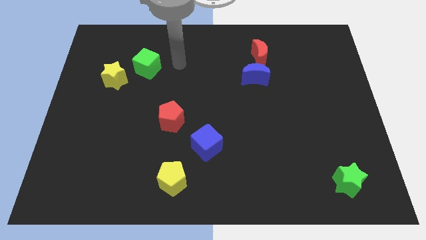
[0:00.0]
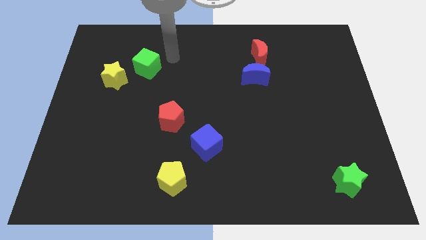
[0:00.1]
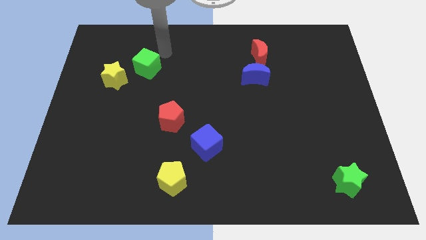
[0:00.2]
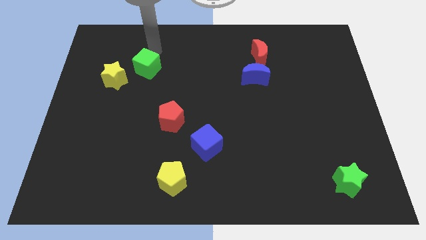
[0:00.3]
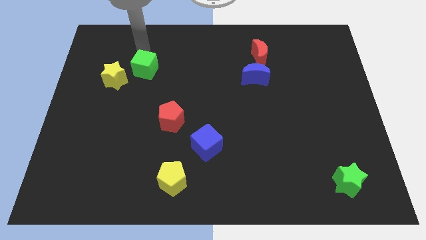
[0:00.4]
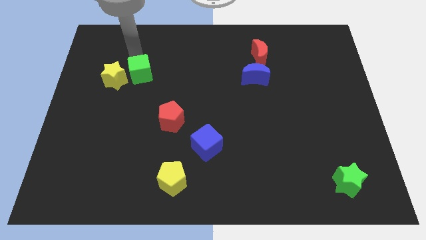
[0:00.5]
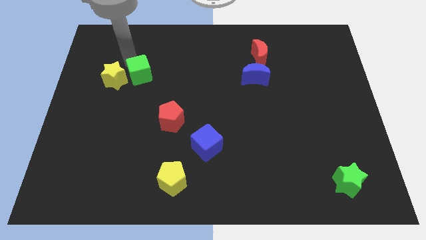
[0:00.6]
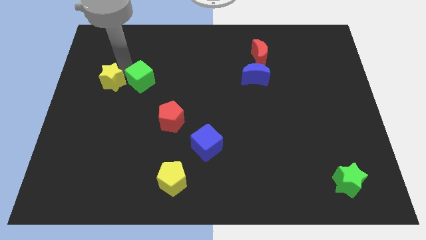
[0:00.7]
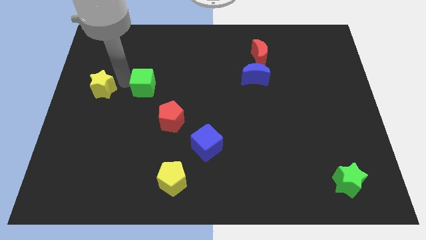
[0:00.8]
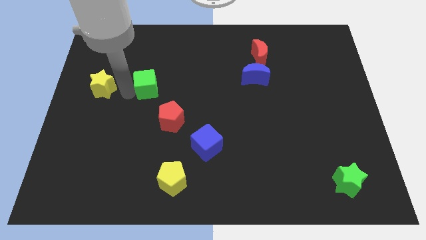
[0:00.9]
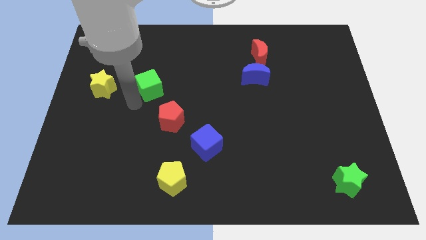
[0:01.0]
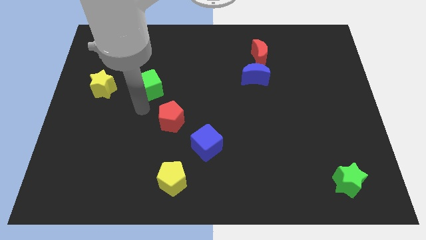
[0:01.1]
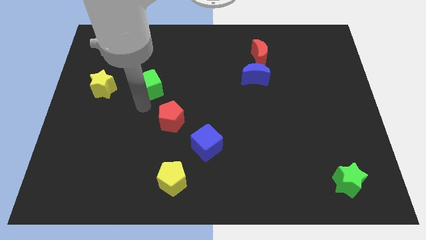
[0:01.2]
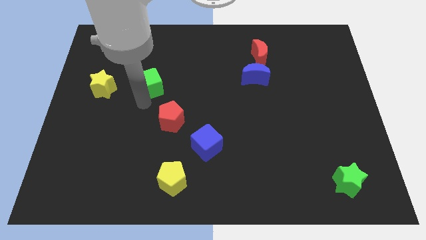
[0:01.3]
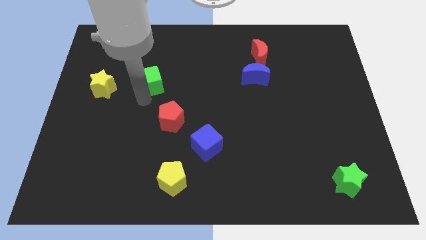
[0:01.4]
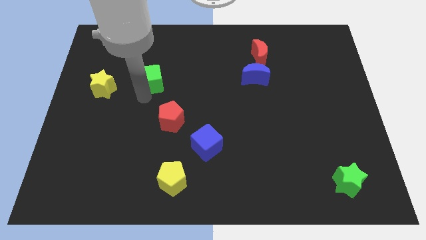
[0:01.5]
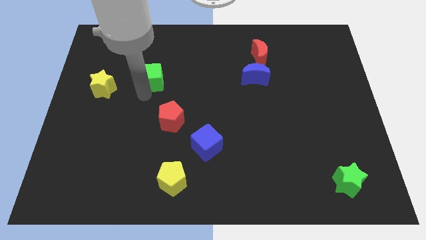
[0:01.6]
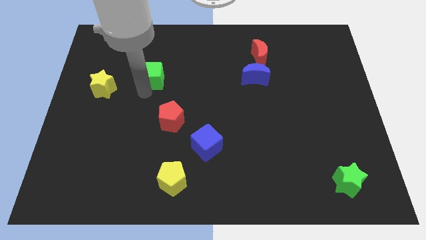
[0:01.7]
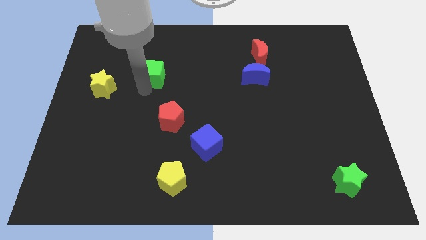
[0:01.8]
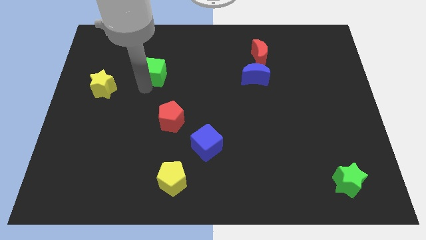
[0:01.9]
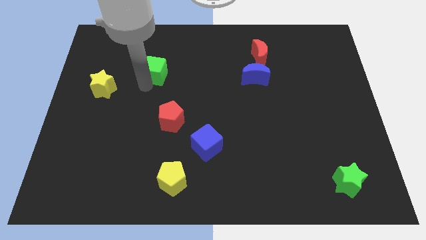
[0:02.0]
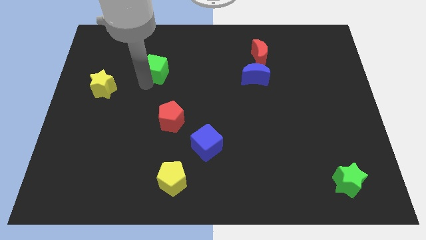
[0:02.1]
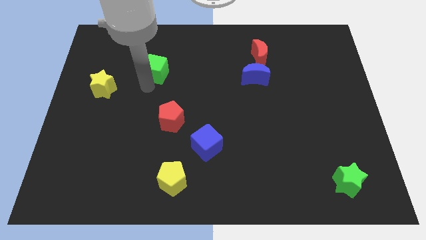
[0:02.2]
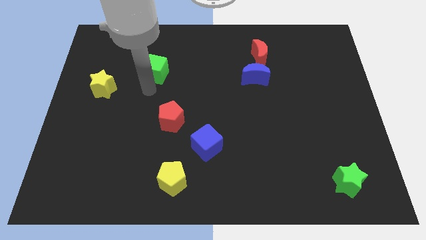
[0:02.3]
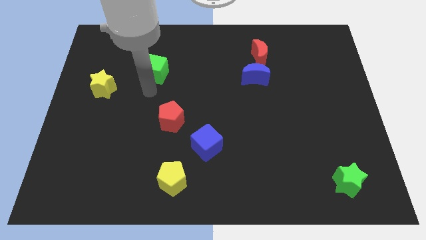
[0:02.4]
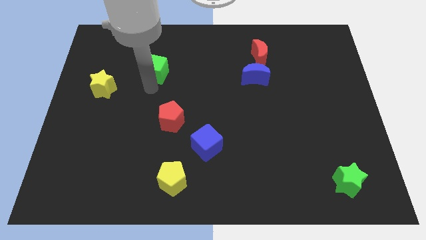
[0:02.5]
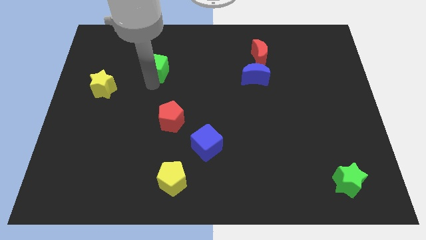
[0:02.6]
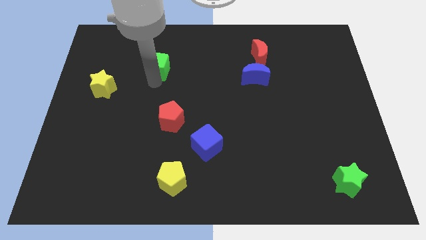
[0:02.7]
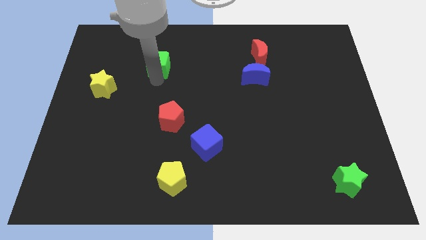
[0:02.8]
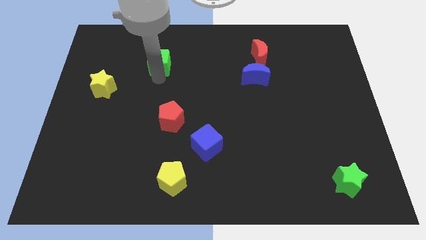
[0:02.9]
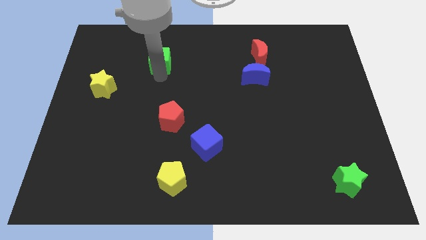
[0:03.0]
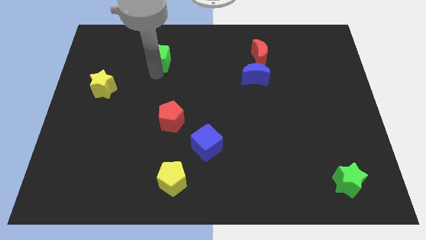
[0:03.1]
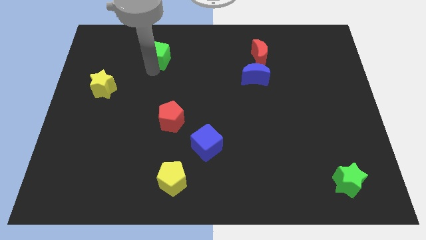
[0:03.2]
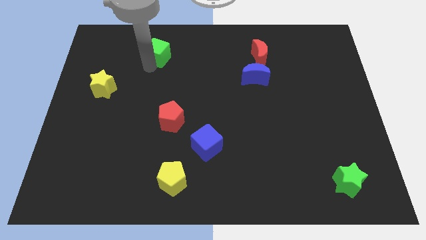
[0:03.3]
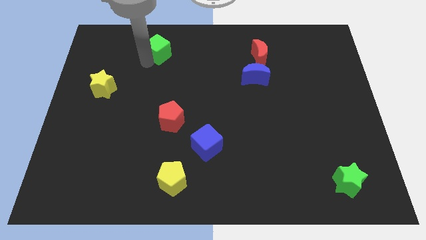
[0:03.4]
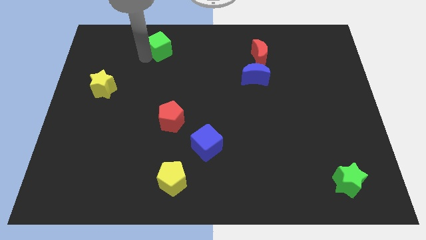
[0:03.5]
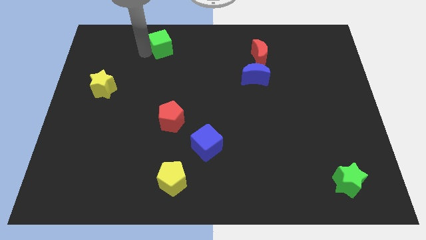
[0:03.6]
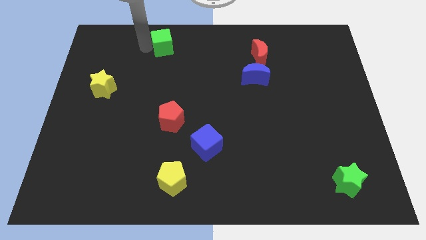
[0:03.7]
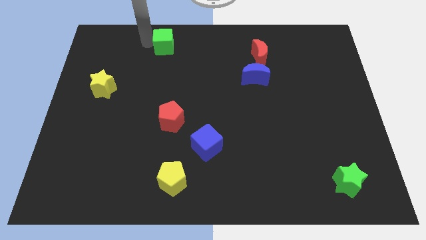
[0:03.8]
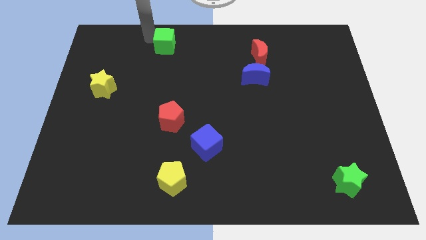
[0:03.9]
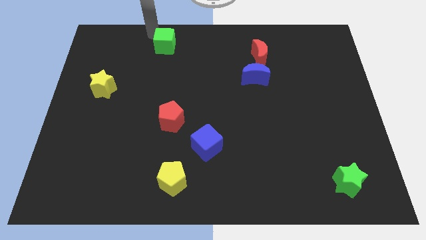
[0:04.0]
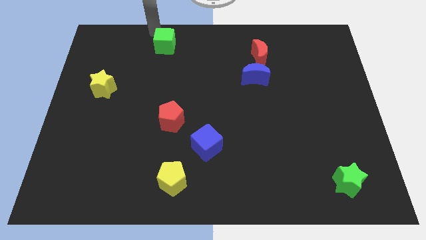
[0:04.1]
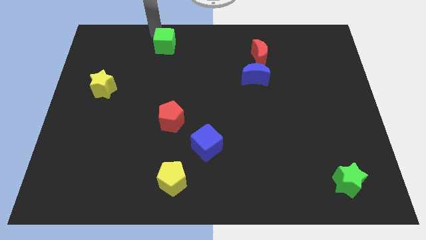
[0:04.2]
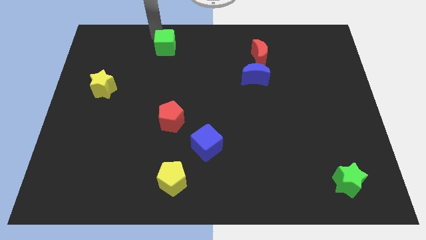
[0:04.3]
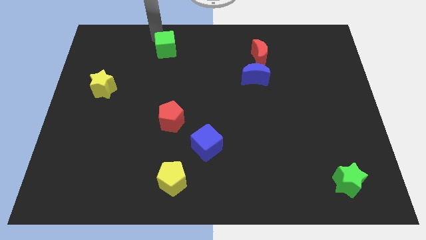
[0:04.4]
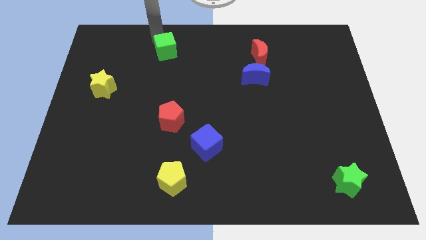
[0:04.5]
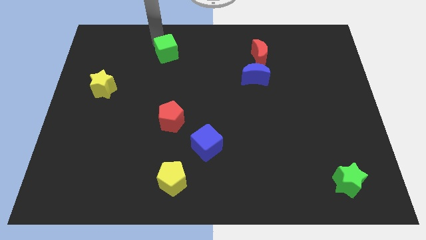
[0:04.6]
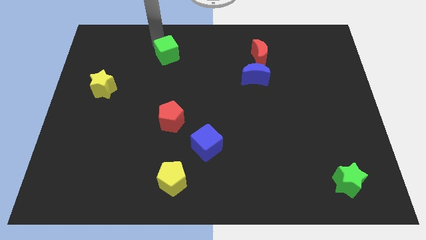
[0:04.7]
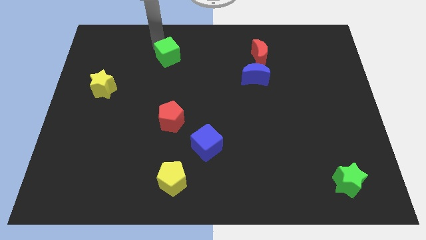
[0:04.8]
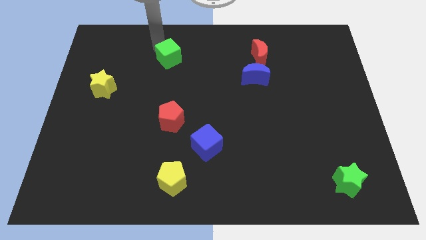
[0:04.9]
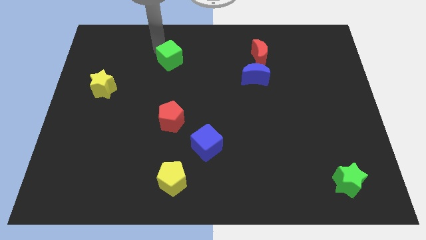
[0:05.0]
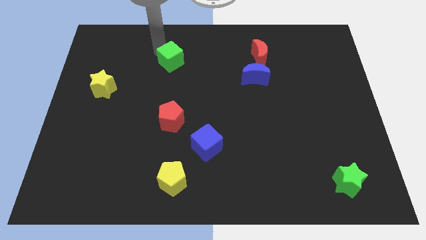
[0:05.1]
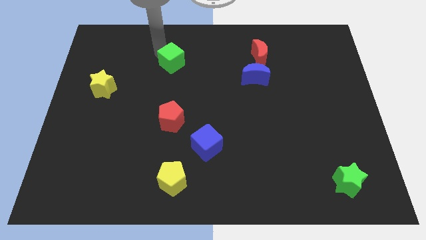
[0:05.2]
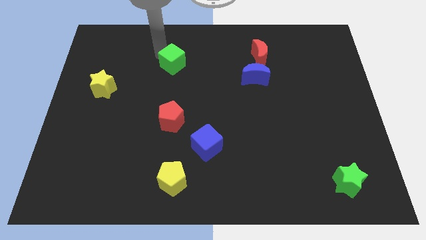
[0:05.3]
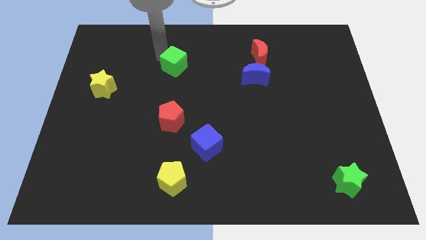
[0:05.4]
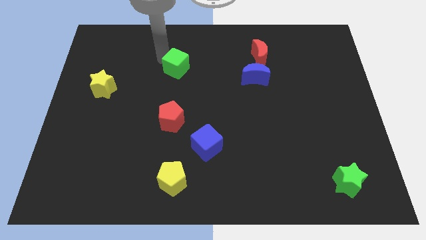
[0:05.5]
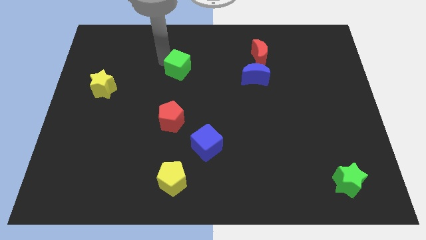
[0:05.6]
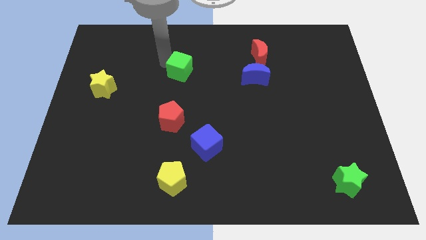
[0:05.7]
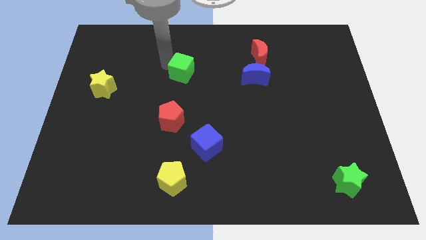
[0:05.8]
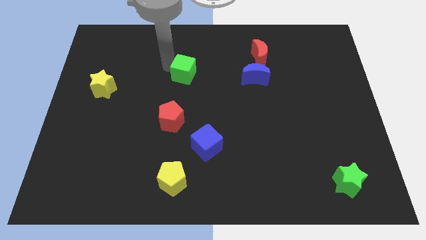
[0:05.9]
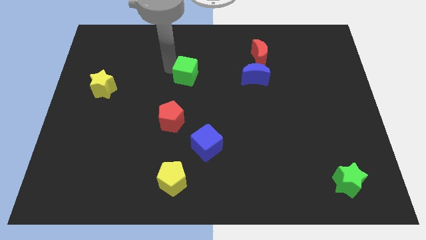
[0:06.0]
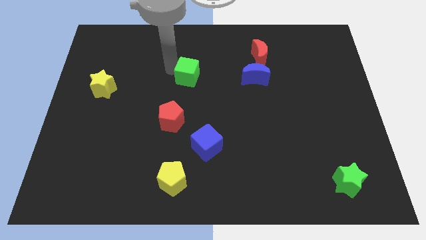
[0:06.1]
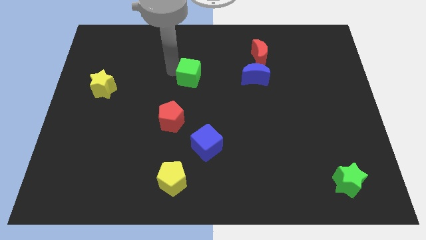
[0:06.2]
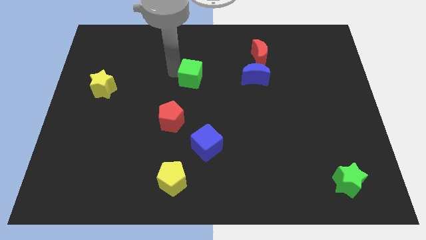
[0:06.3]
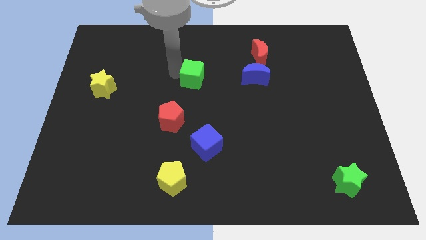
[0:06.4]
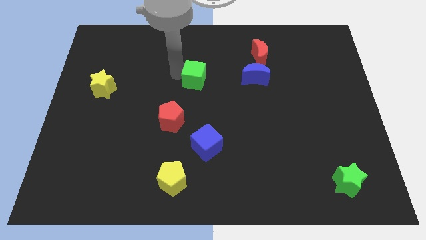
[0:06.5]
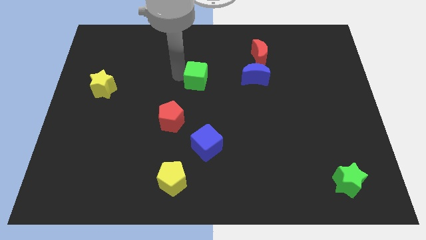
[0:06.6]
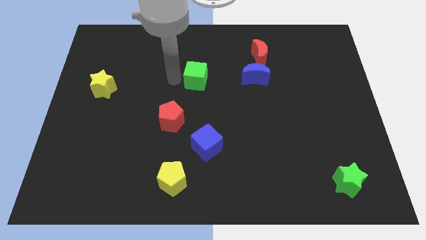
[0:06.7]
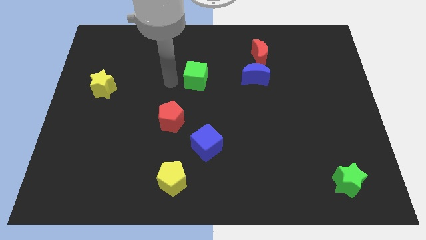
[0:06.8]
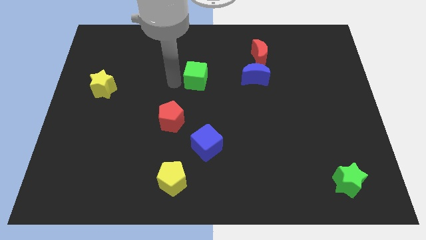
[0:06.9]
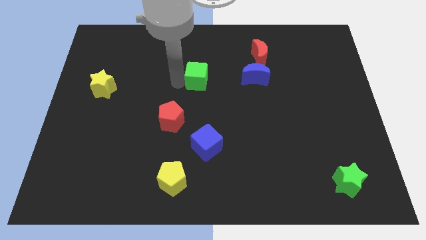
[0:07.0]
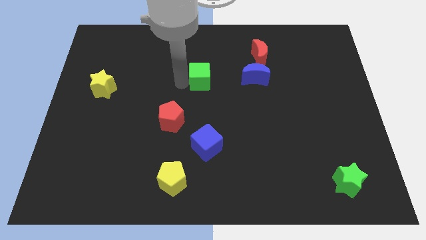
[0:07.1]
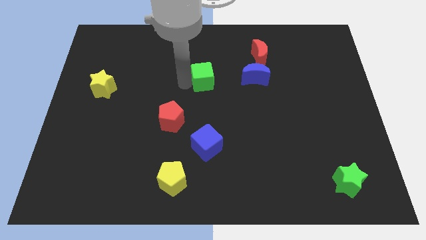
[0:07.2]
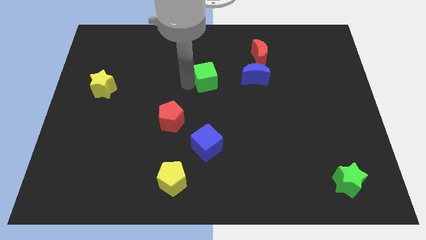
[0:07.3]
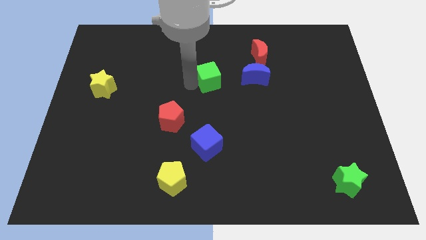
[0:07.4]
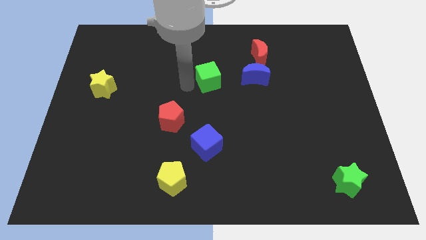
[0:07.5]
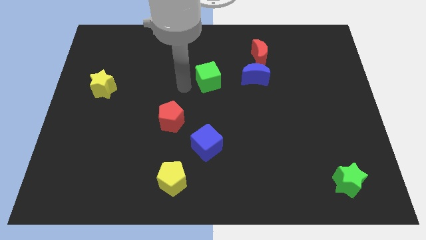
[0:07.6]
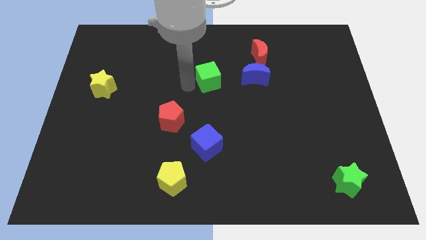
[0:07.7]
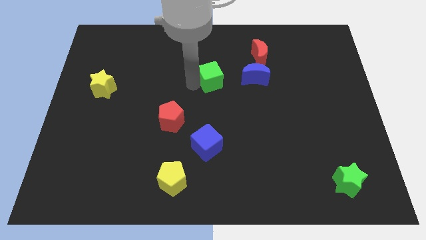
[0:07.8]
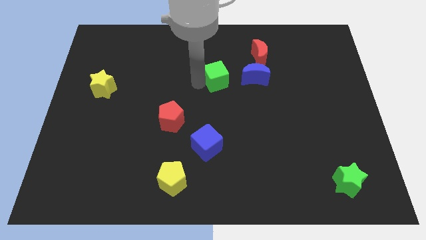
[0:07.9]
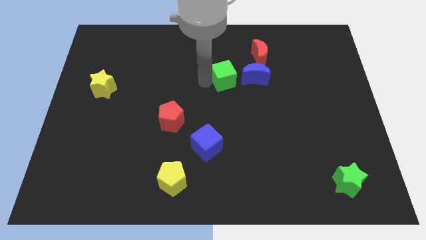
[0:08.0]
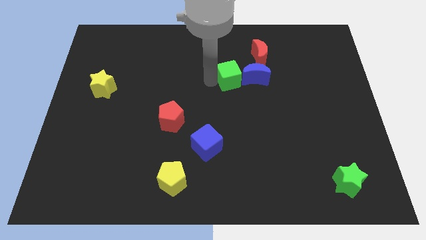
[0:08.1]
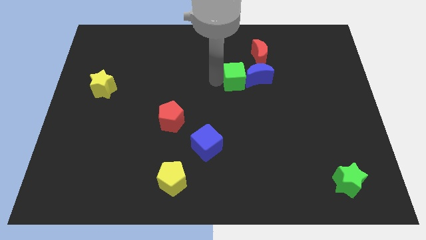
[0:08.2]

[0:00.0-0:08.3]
put the green cube close to the blue moon
